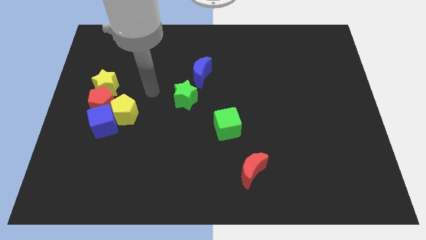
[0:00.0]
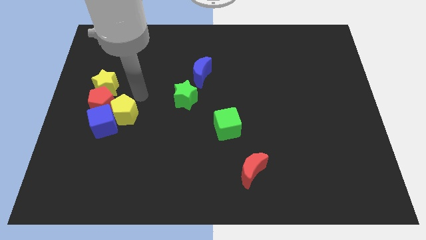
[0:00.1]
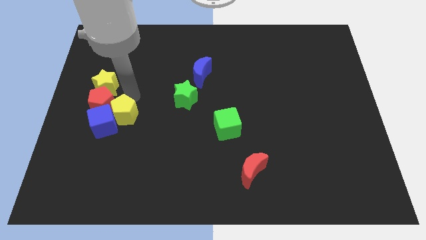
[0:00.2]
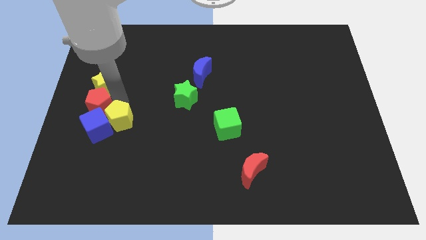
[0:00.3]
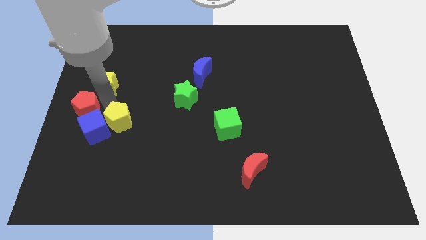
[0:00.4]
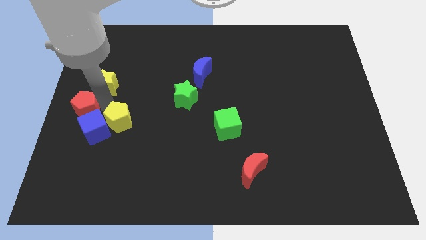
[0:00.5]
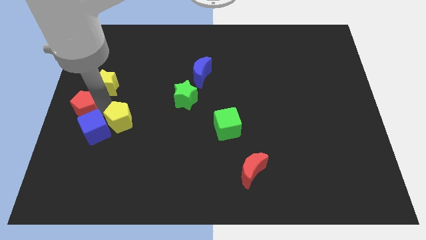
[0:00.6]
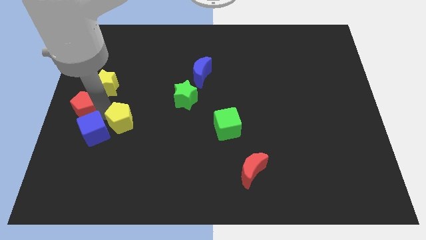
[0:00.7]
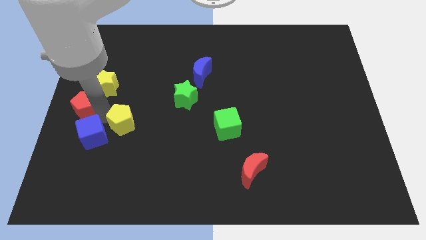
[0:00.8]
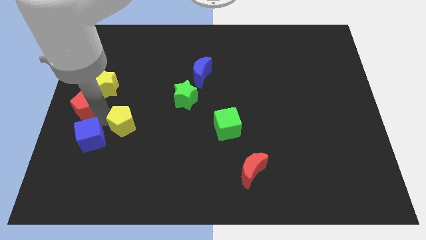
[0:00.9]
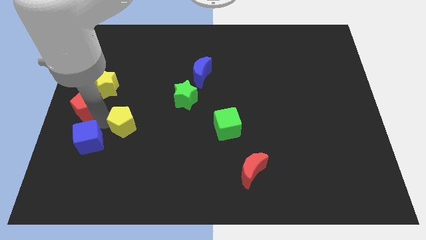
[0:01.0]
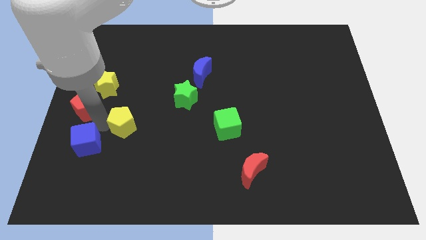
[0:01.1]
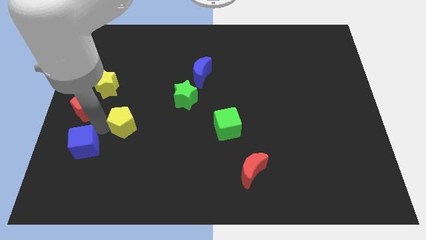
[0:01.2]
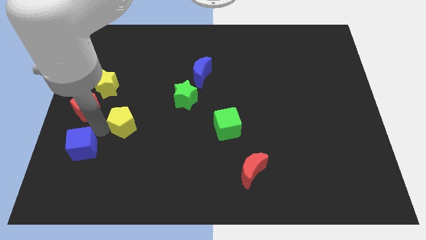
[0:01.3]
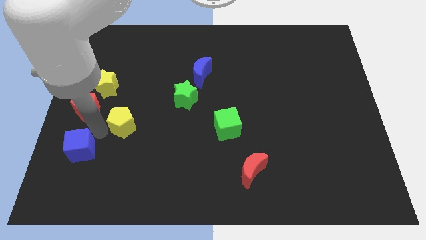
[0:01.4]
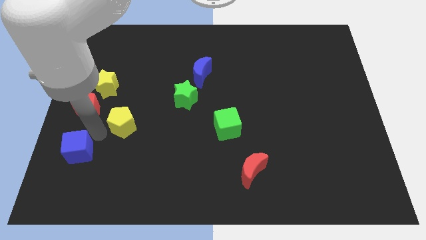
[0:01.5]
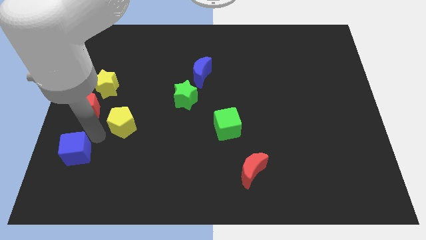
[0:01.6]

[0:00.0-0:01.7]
separate the blue cube from the yellow pentagon and red pentagon

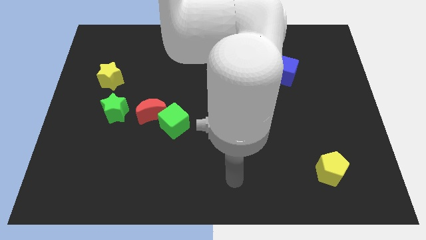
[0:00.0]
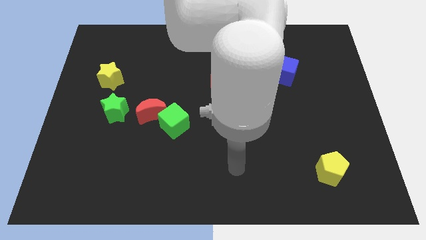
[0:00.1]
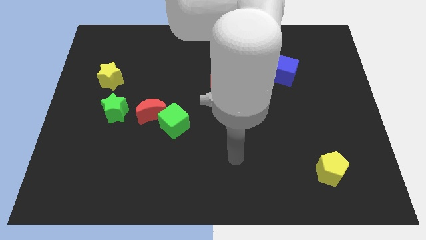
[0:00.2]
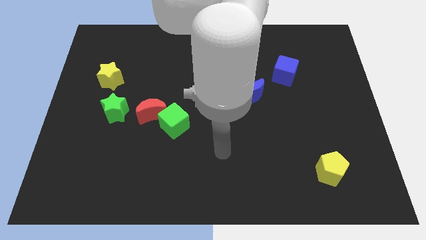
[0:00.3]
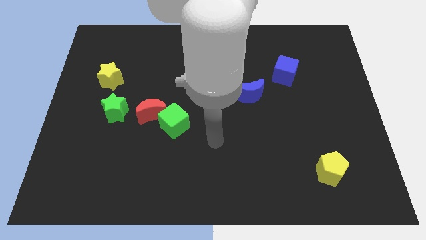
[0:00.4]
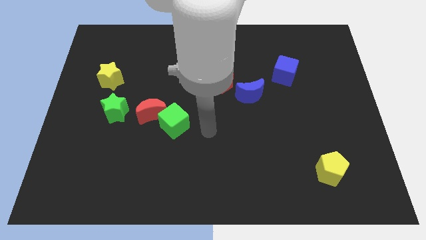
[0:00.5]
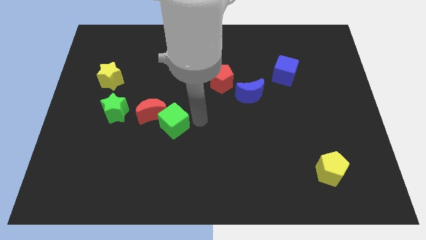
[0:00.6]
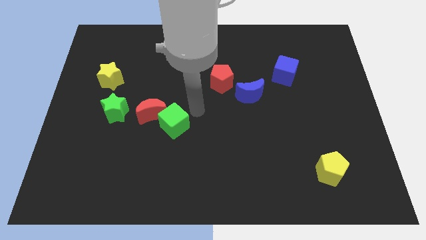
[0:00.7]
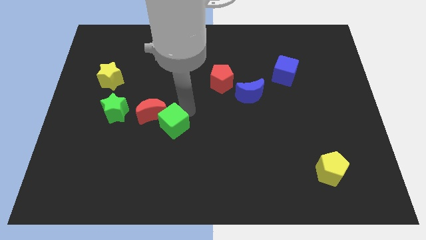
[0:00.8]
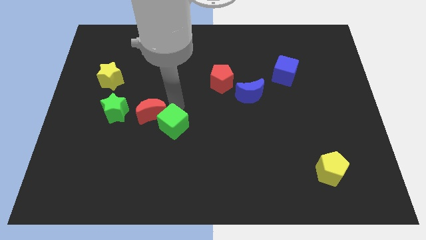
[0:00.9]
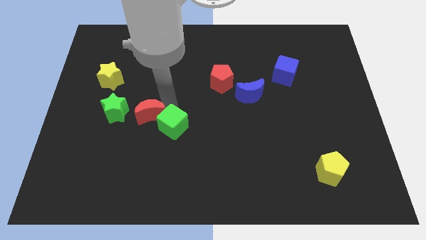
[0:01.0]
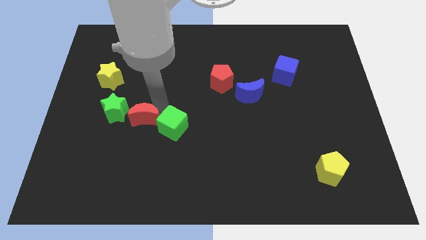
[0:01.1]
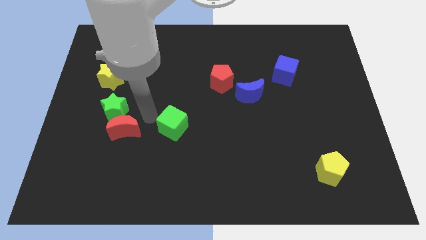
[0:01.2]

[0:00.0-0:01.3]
separate the green cube from the red moon

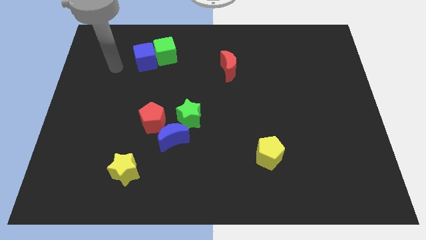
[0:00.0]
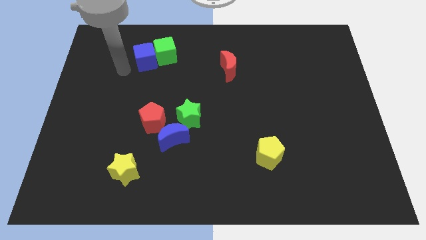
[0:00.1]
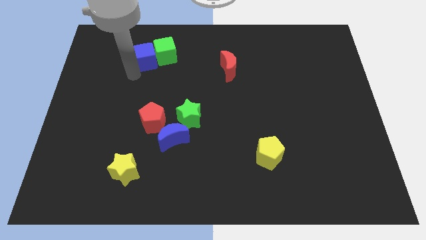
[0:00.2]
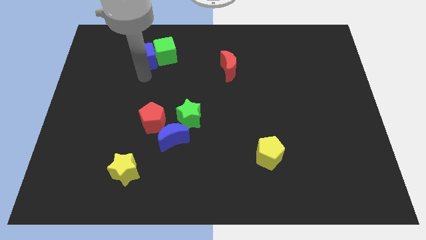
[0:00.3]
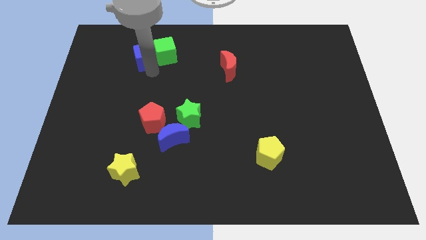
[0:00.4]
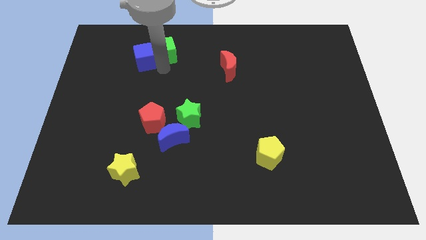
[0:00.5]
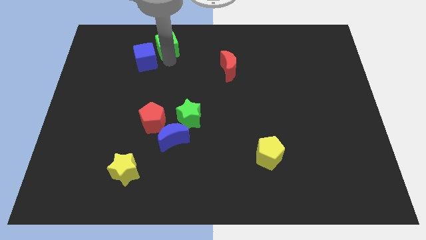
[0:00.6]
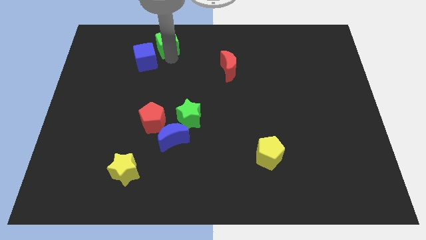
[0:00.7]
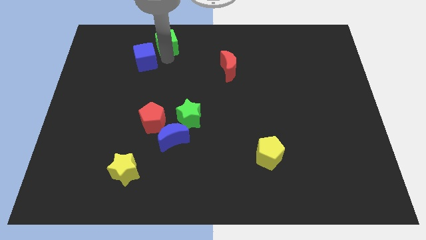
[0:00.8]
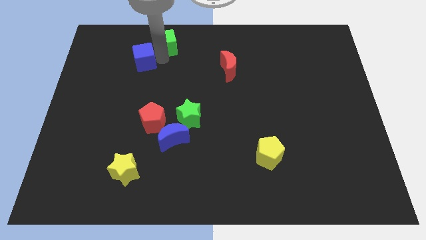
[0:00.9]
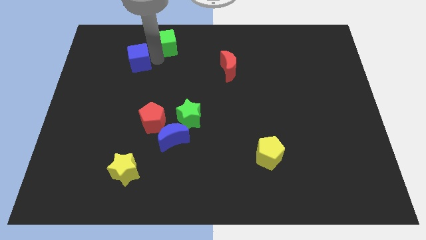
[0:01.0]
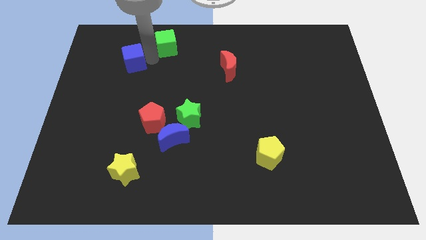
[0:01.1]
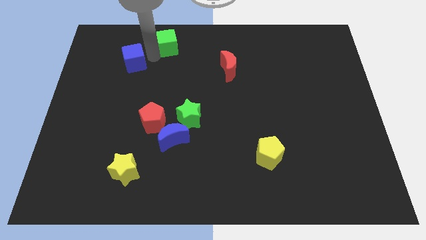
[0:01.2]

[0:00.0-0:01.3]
separate the blue cube from the green cube

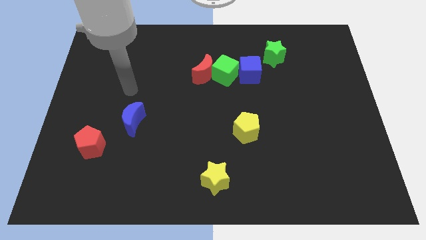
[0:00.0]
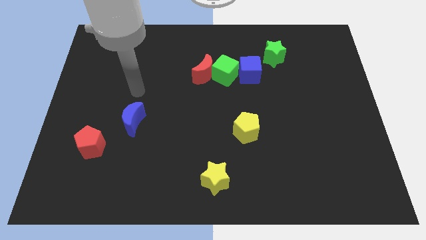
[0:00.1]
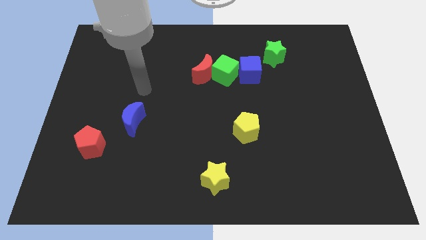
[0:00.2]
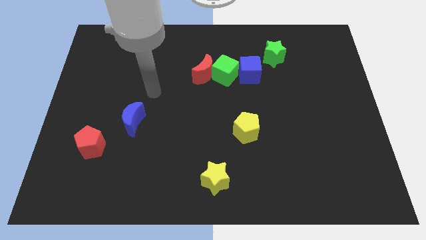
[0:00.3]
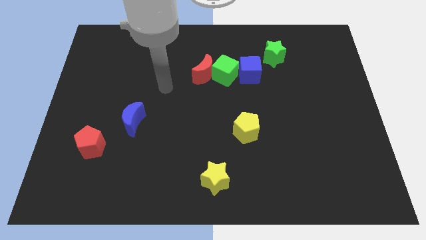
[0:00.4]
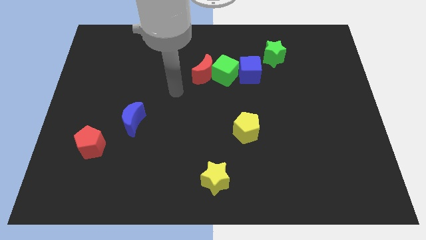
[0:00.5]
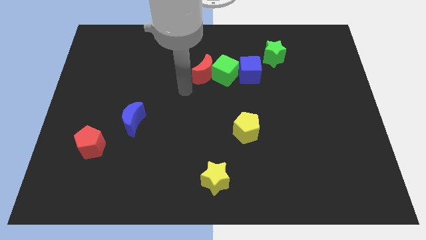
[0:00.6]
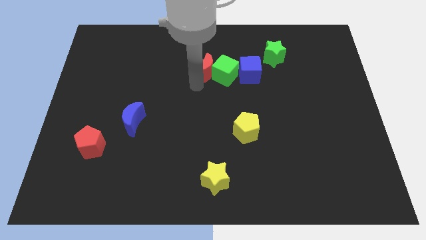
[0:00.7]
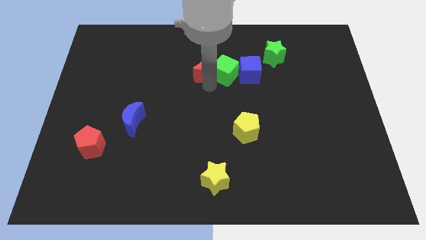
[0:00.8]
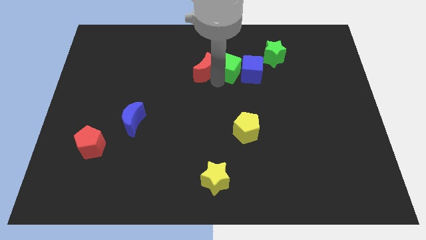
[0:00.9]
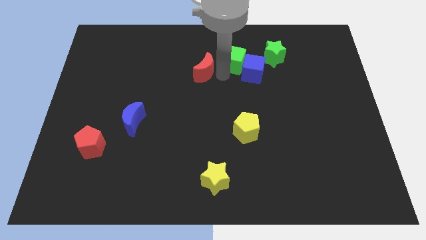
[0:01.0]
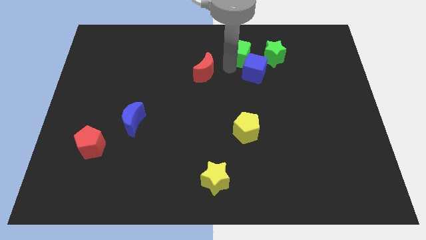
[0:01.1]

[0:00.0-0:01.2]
move the red moon away from the green cube

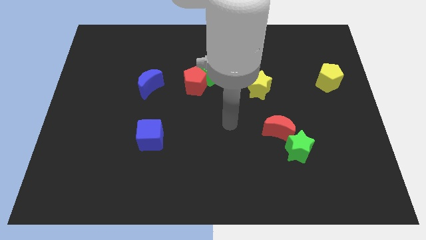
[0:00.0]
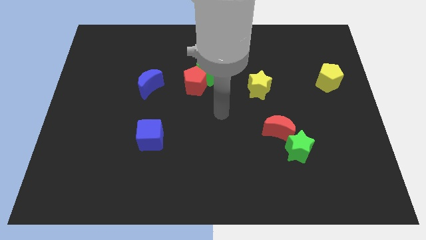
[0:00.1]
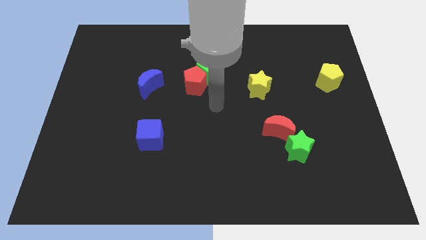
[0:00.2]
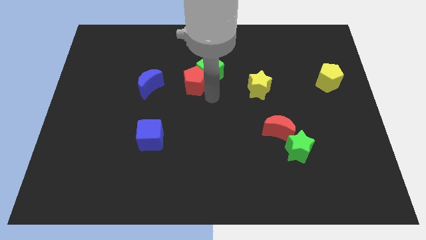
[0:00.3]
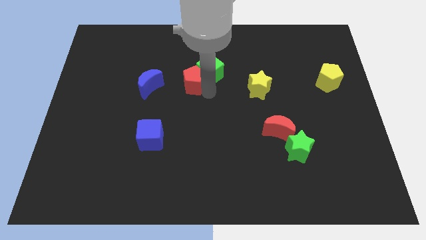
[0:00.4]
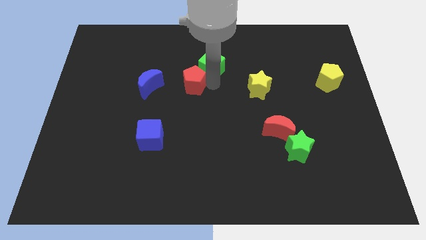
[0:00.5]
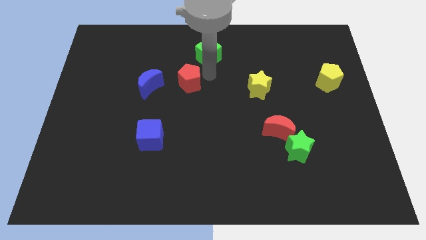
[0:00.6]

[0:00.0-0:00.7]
pull the red pentagon apart from the green cube

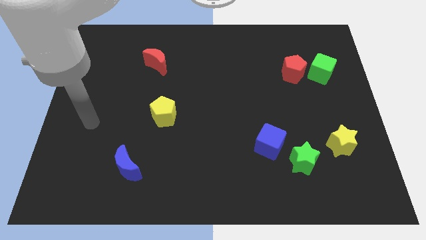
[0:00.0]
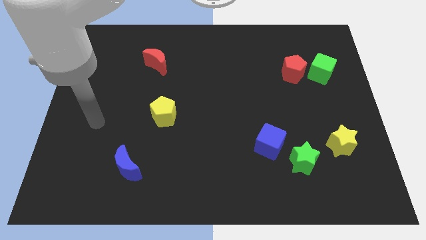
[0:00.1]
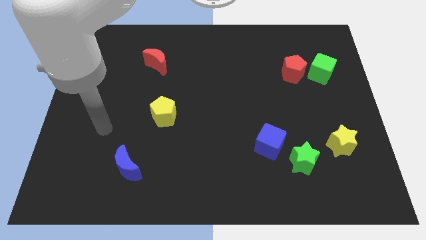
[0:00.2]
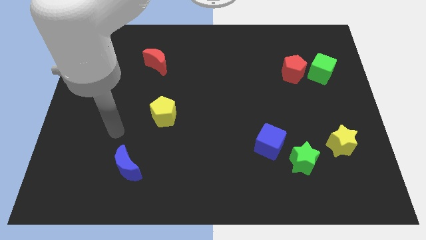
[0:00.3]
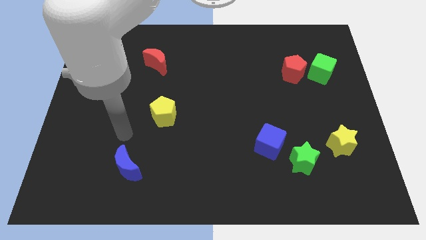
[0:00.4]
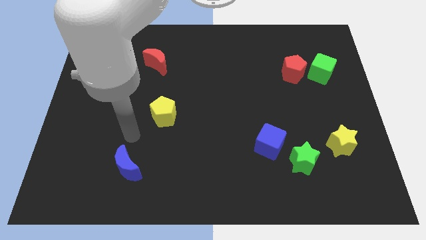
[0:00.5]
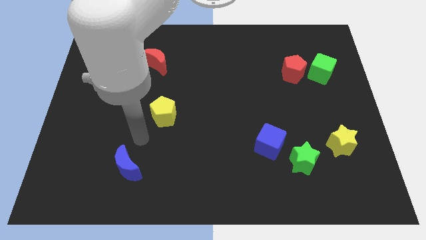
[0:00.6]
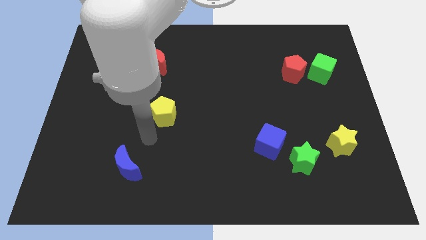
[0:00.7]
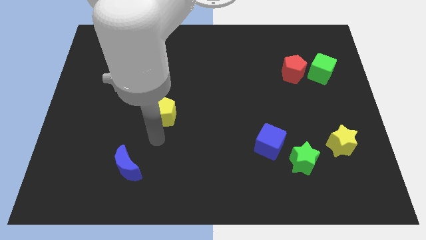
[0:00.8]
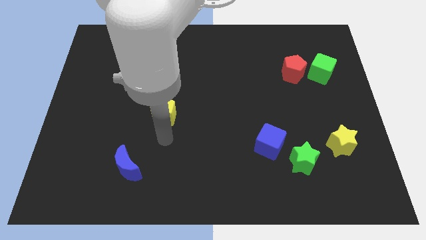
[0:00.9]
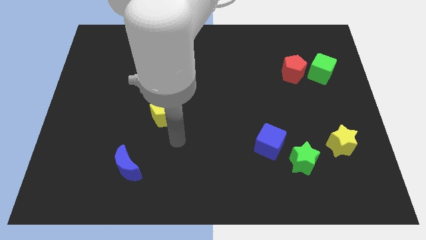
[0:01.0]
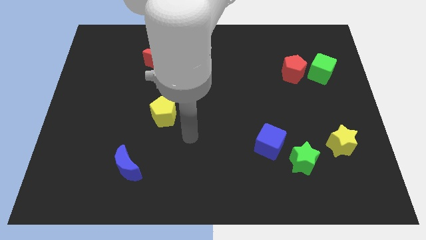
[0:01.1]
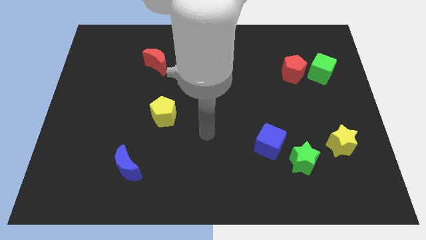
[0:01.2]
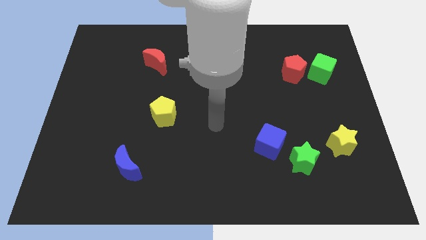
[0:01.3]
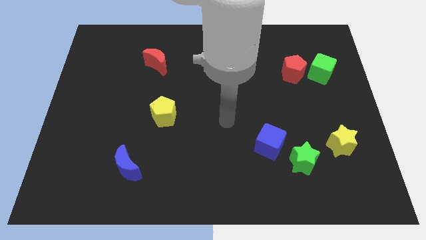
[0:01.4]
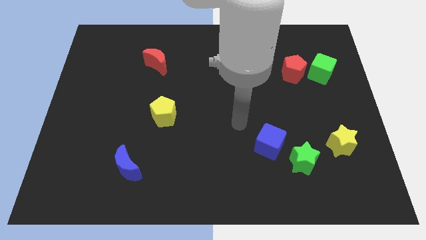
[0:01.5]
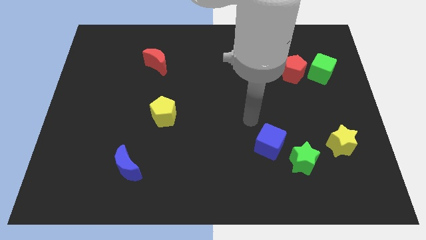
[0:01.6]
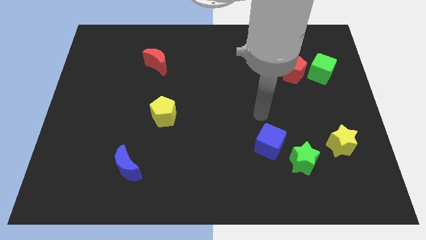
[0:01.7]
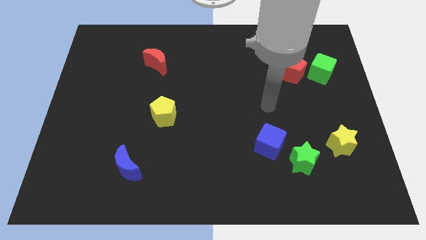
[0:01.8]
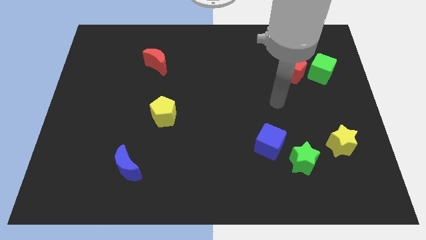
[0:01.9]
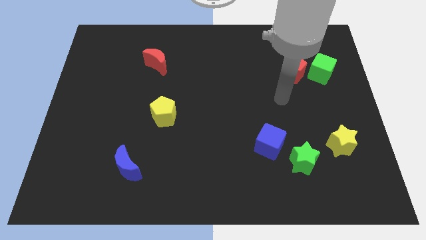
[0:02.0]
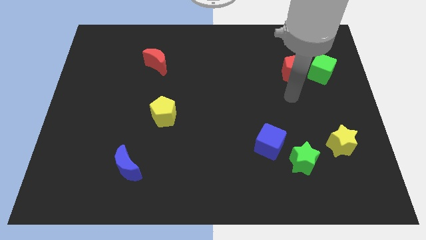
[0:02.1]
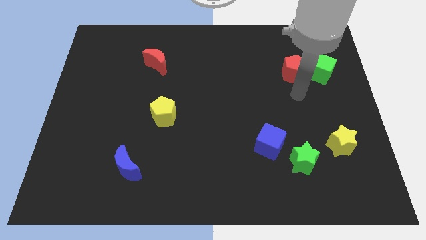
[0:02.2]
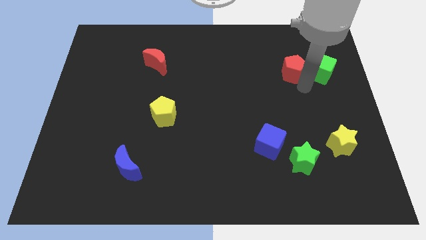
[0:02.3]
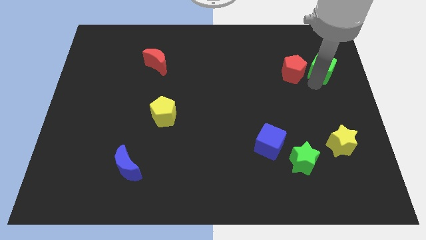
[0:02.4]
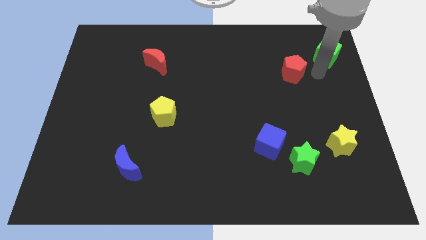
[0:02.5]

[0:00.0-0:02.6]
separate the red pentagon from the green cube

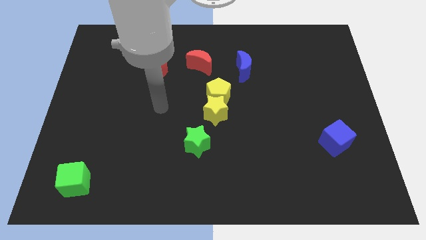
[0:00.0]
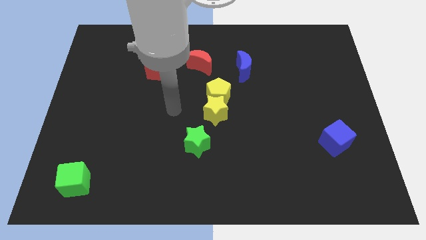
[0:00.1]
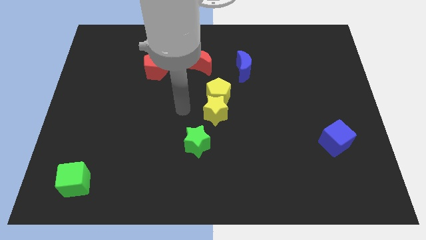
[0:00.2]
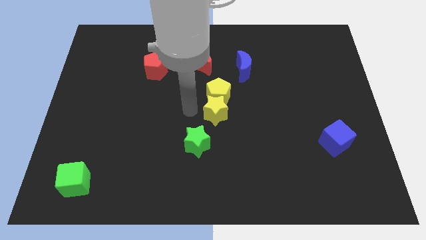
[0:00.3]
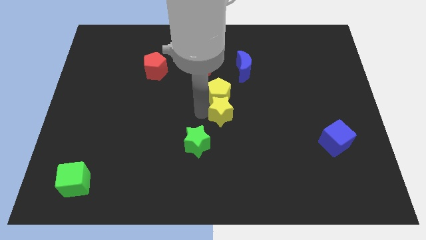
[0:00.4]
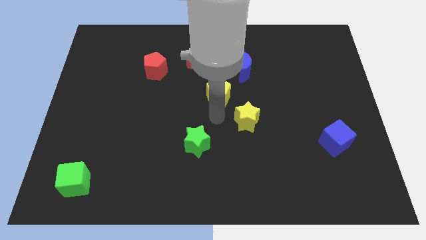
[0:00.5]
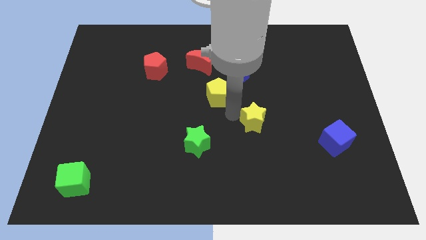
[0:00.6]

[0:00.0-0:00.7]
pull the yellow pentagon apart from the yellow star
